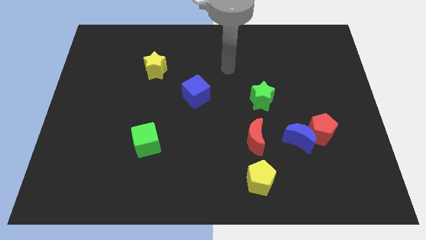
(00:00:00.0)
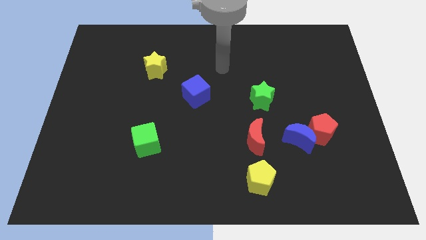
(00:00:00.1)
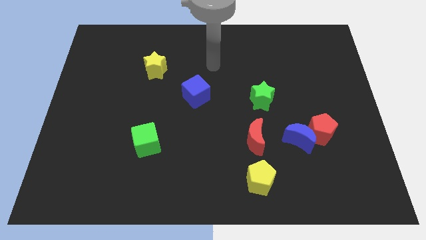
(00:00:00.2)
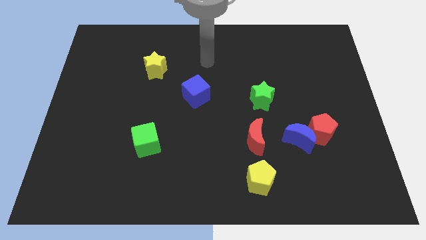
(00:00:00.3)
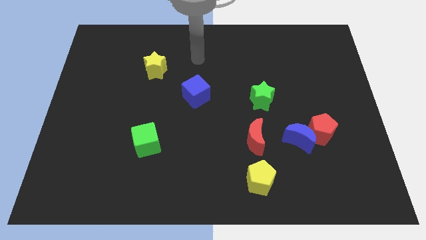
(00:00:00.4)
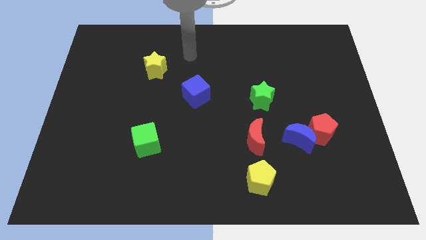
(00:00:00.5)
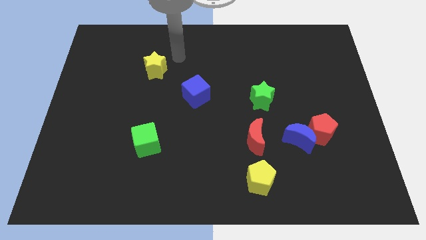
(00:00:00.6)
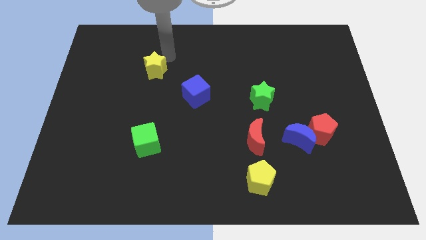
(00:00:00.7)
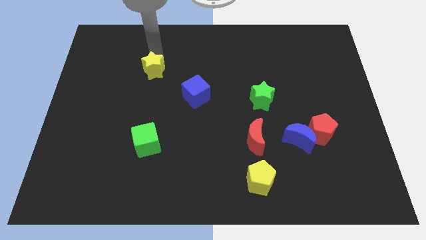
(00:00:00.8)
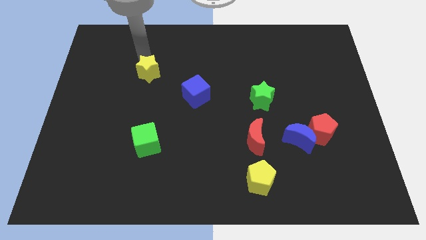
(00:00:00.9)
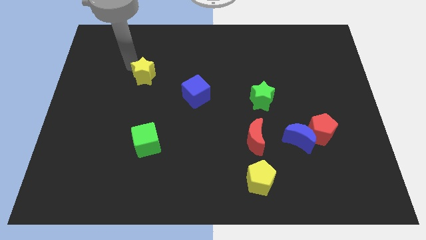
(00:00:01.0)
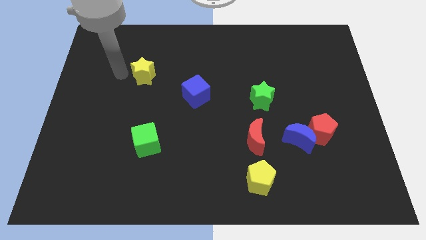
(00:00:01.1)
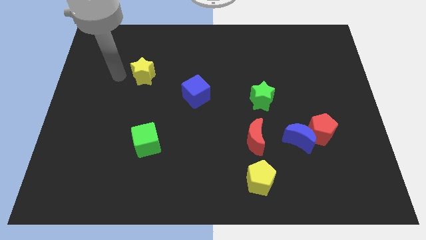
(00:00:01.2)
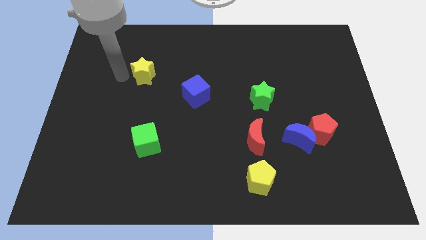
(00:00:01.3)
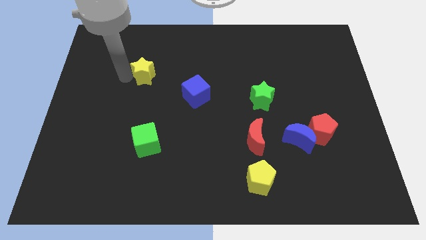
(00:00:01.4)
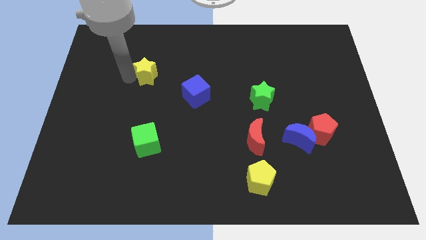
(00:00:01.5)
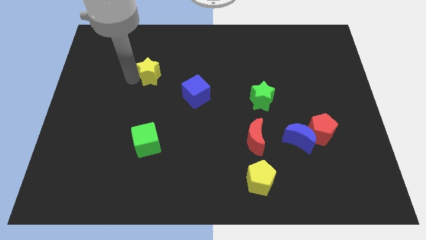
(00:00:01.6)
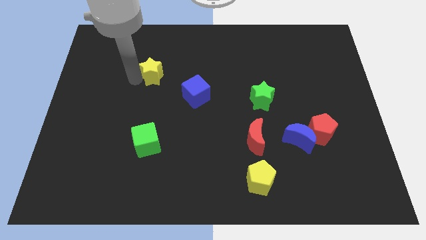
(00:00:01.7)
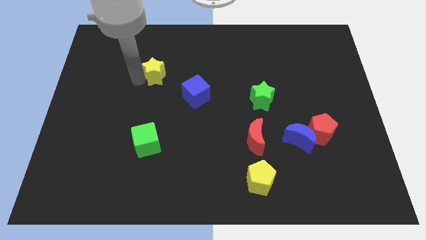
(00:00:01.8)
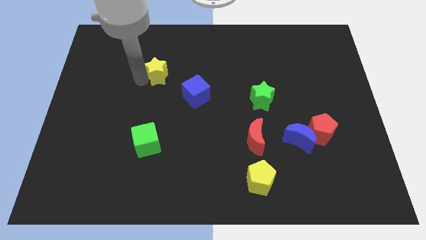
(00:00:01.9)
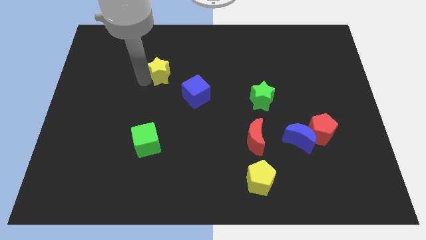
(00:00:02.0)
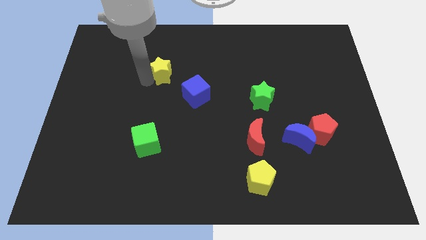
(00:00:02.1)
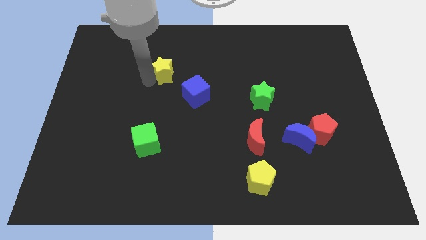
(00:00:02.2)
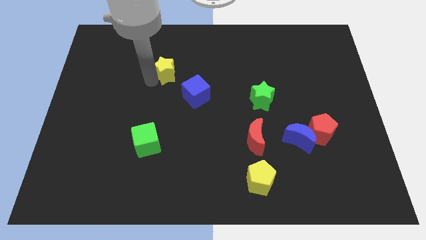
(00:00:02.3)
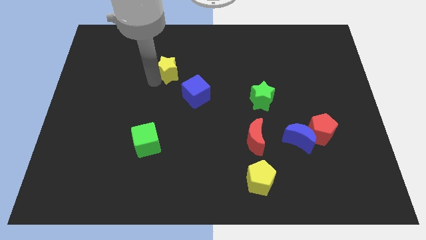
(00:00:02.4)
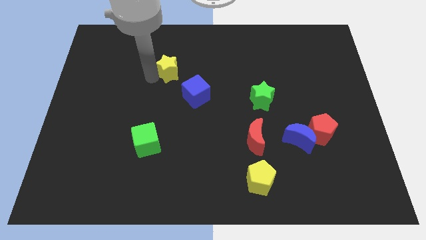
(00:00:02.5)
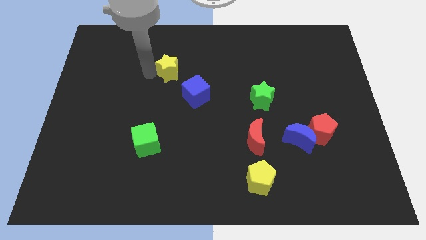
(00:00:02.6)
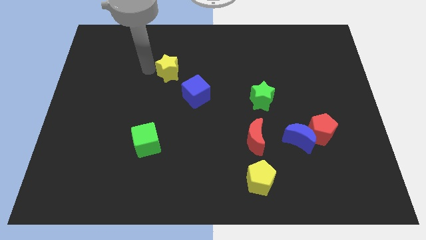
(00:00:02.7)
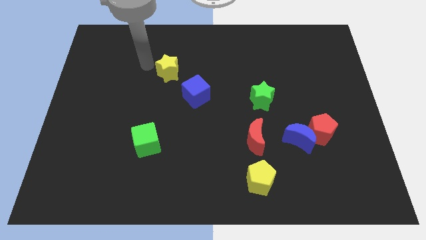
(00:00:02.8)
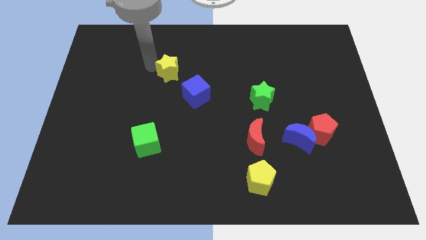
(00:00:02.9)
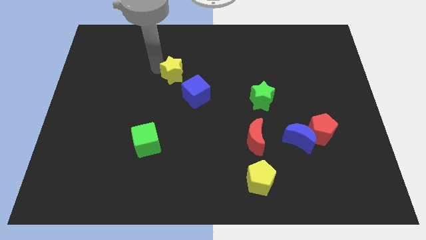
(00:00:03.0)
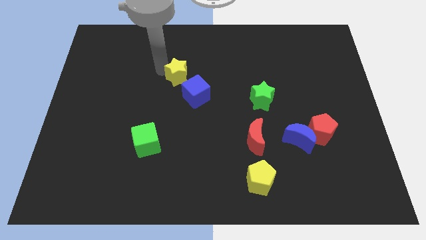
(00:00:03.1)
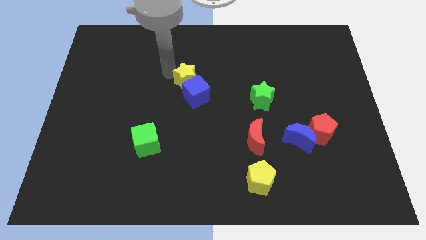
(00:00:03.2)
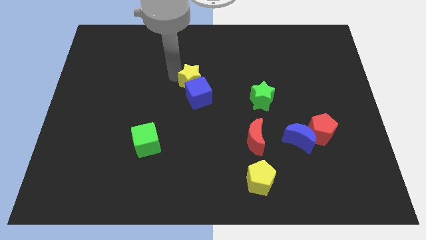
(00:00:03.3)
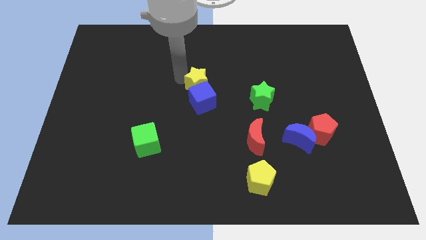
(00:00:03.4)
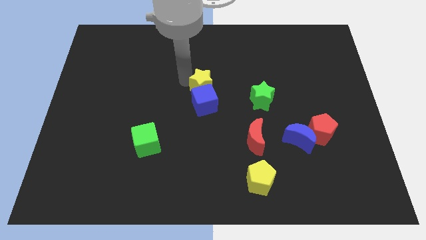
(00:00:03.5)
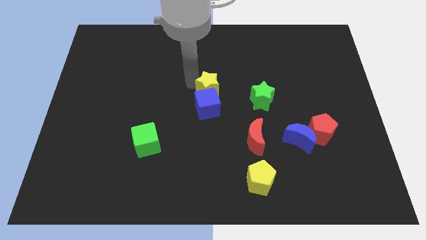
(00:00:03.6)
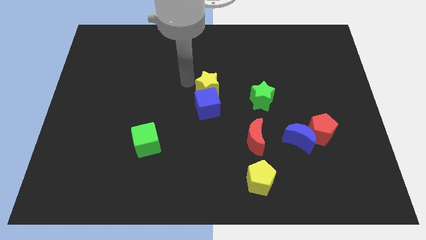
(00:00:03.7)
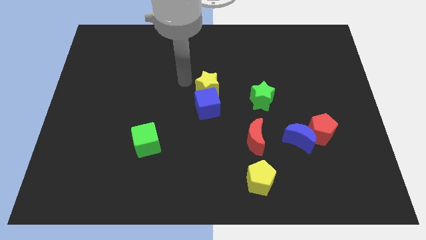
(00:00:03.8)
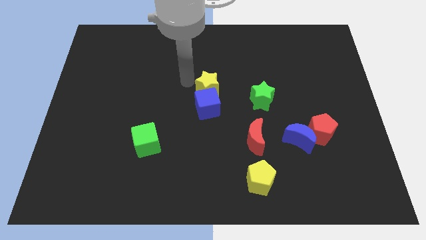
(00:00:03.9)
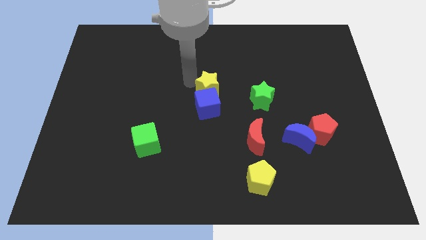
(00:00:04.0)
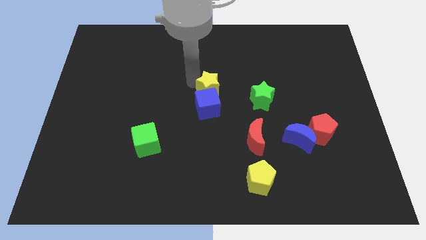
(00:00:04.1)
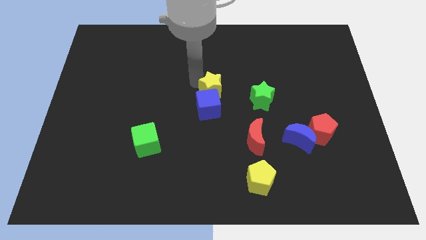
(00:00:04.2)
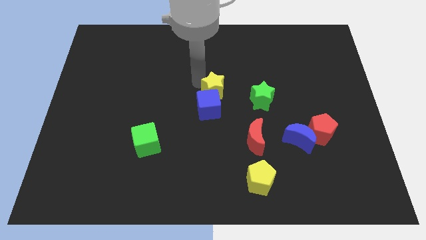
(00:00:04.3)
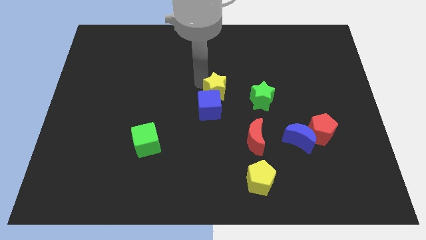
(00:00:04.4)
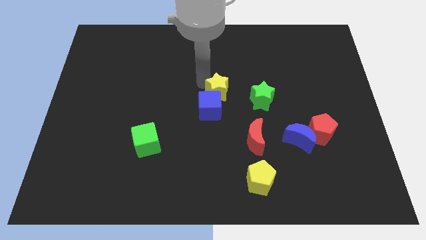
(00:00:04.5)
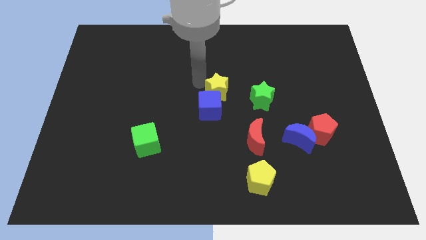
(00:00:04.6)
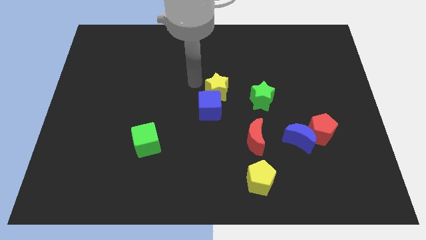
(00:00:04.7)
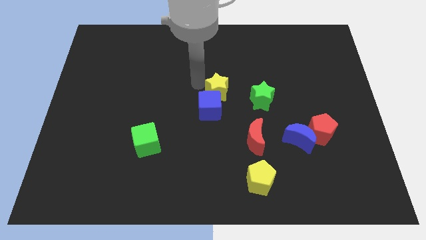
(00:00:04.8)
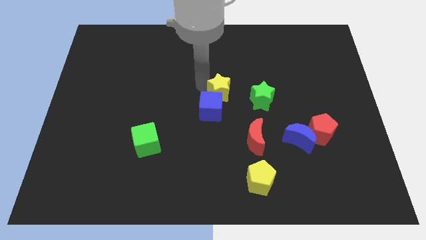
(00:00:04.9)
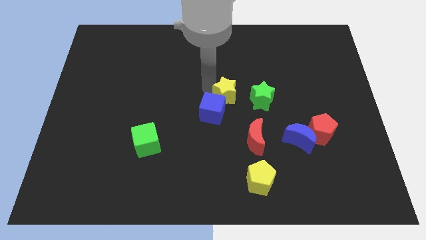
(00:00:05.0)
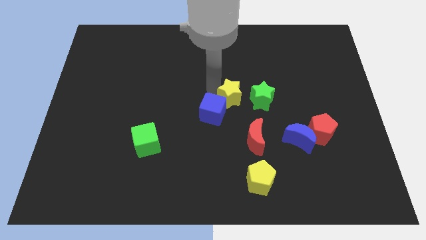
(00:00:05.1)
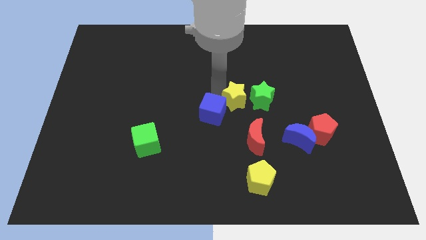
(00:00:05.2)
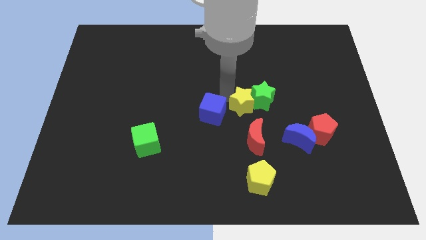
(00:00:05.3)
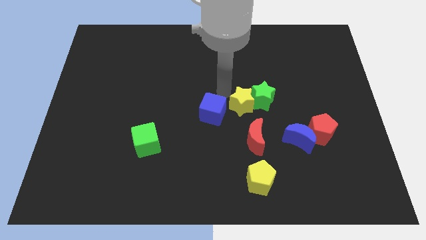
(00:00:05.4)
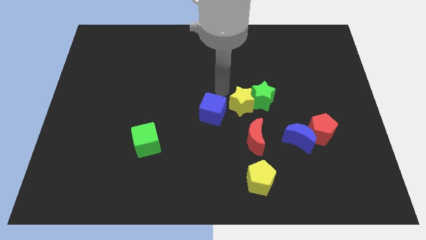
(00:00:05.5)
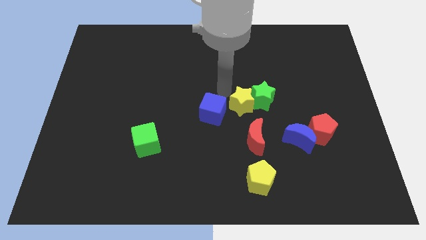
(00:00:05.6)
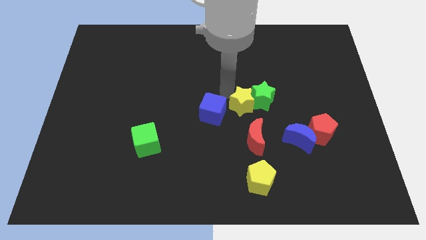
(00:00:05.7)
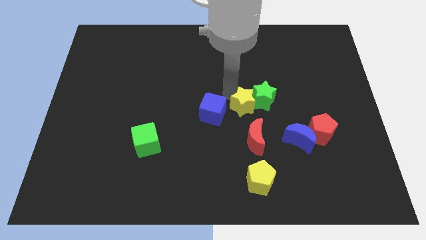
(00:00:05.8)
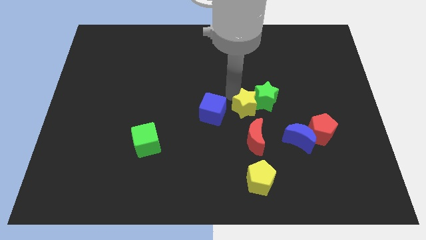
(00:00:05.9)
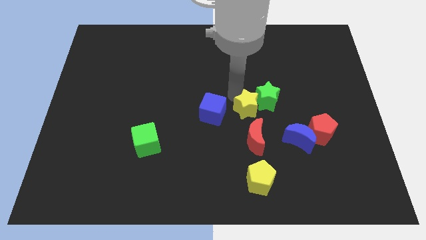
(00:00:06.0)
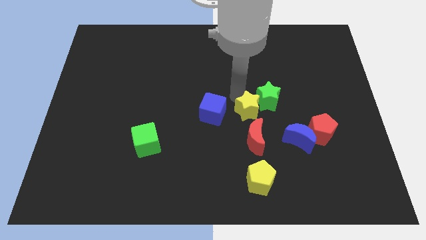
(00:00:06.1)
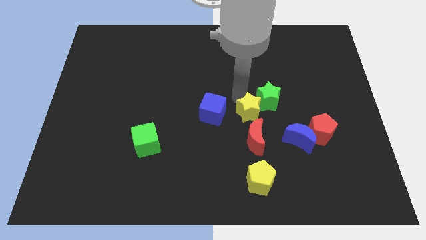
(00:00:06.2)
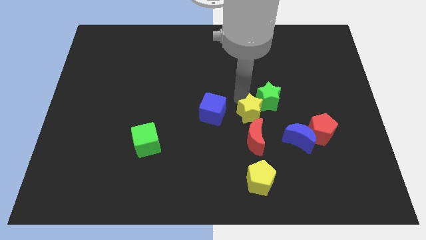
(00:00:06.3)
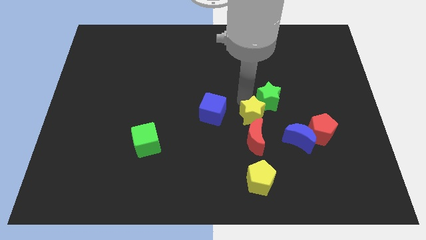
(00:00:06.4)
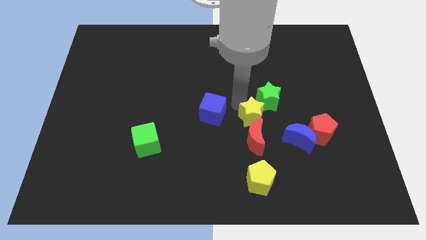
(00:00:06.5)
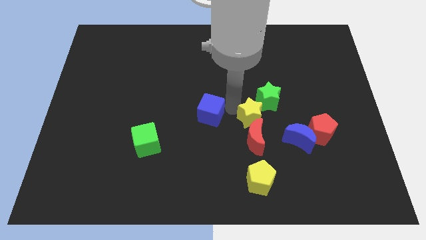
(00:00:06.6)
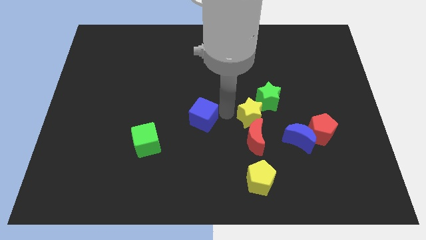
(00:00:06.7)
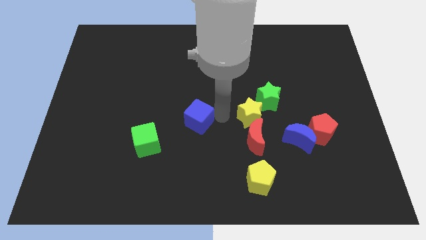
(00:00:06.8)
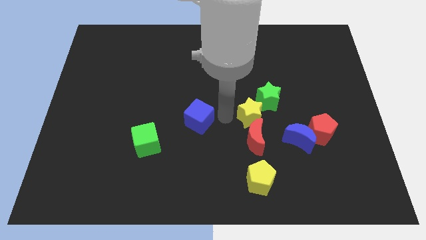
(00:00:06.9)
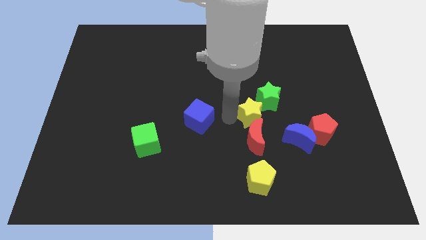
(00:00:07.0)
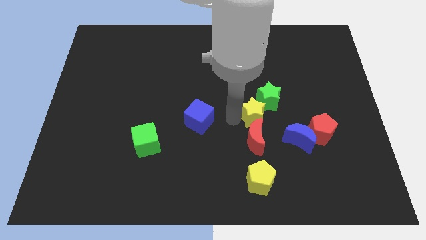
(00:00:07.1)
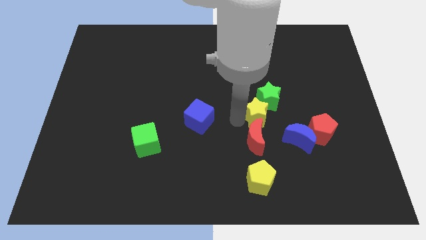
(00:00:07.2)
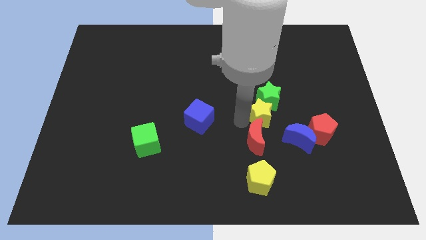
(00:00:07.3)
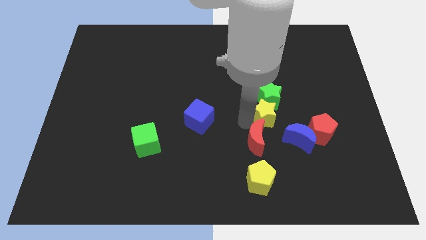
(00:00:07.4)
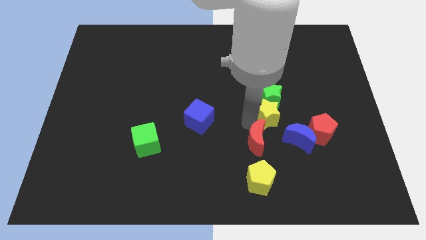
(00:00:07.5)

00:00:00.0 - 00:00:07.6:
push the yellow star diagonally down and to the right of the green star

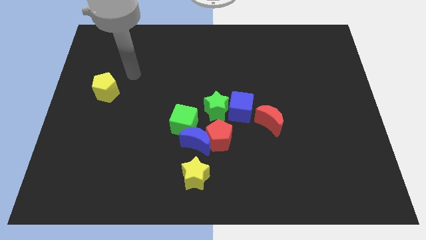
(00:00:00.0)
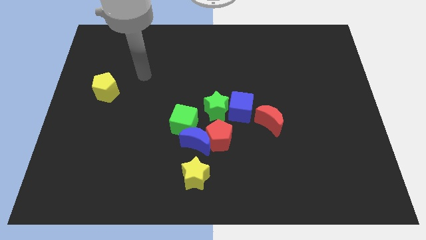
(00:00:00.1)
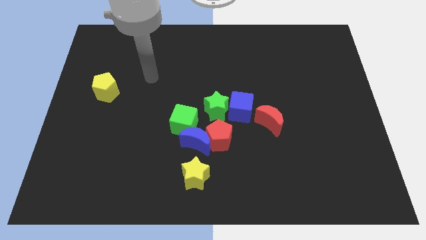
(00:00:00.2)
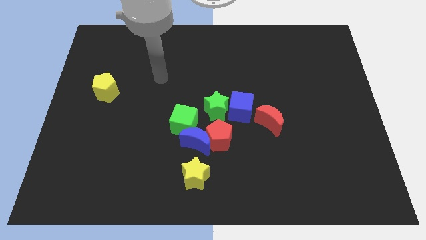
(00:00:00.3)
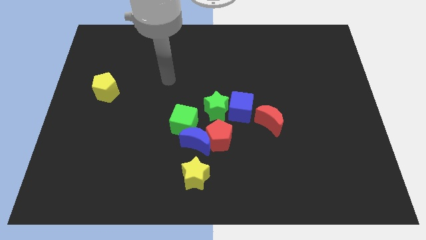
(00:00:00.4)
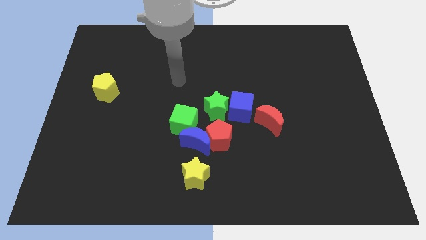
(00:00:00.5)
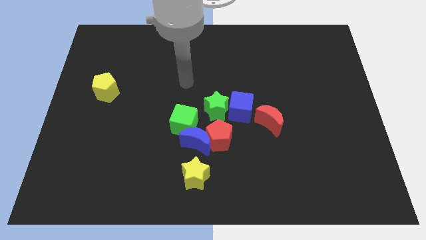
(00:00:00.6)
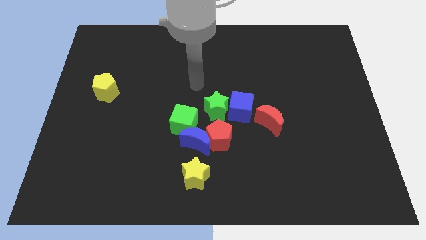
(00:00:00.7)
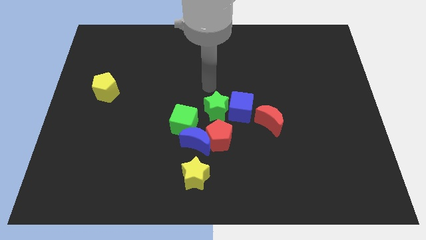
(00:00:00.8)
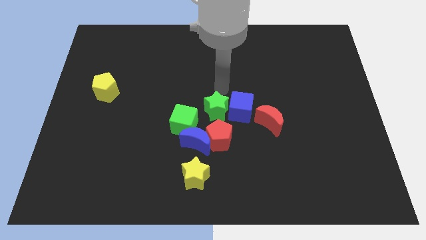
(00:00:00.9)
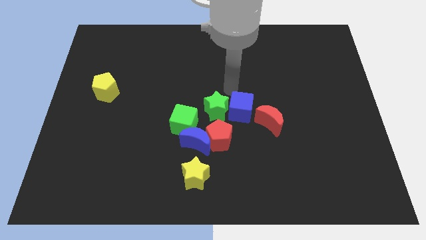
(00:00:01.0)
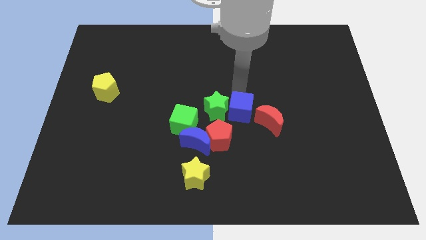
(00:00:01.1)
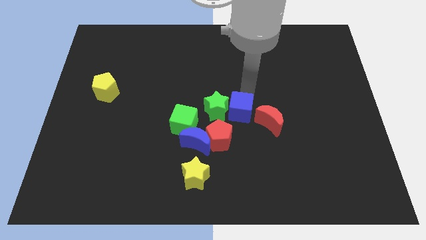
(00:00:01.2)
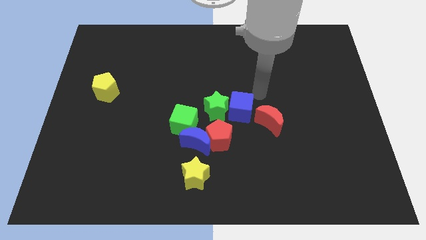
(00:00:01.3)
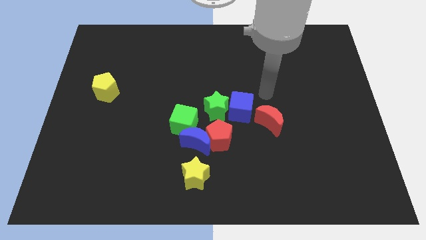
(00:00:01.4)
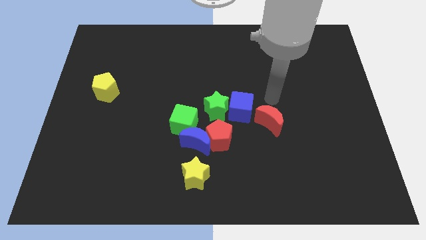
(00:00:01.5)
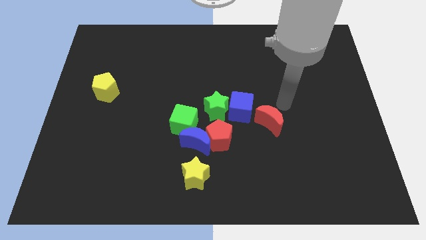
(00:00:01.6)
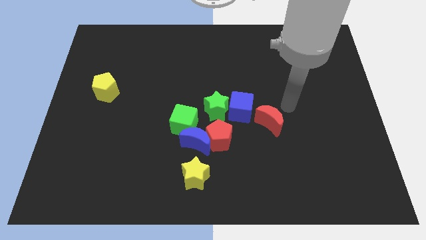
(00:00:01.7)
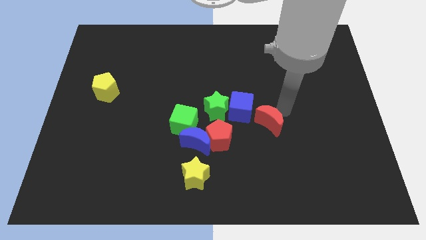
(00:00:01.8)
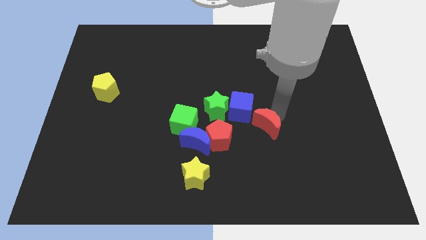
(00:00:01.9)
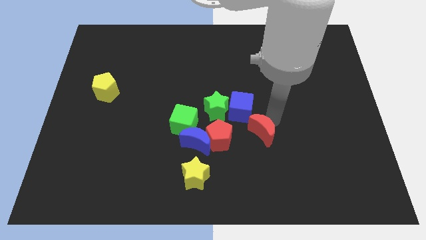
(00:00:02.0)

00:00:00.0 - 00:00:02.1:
push the red moon just right of the blue moon
